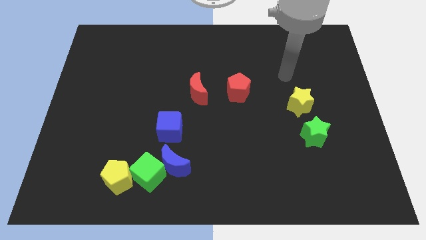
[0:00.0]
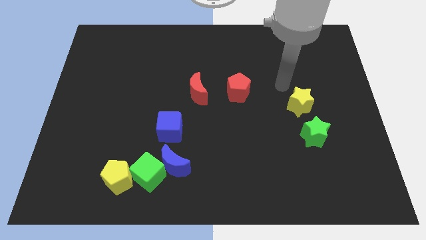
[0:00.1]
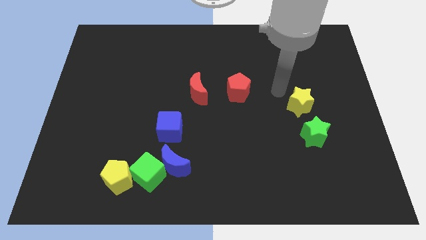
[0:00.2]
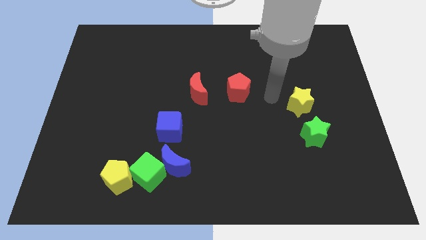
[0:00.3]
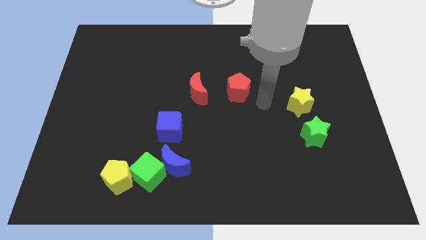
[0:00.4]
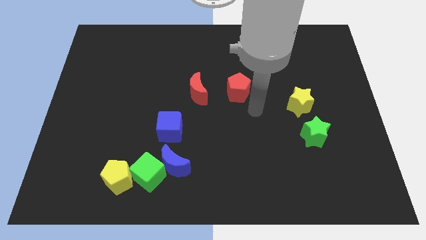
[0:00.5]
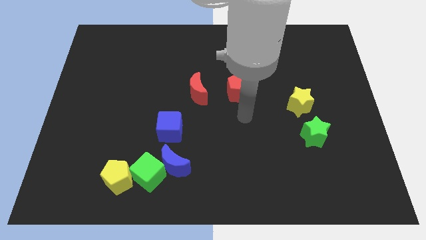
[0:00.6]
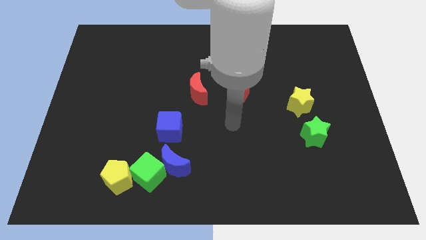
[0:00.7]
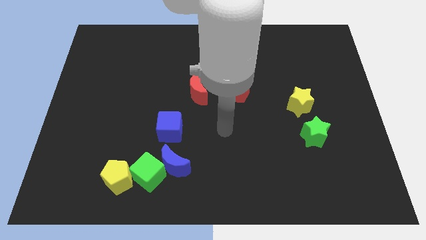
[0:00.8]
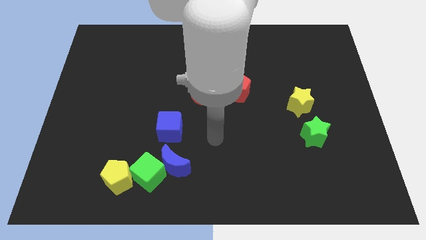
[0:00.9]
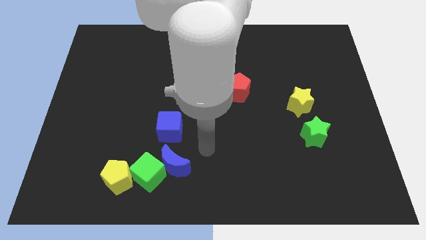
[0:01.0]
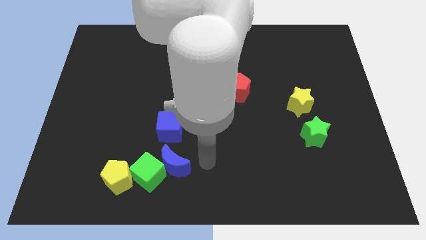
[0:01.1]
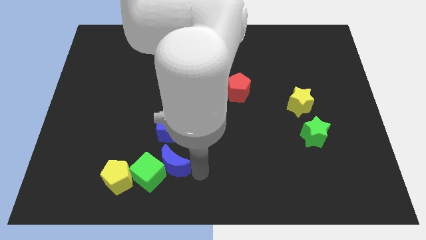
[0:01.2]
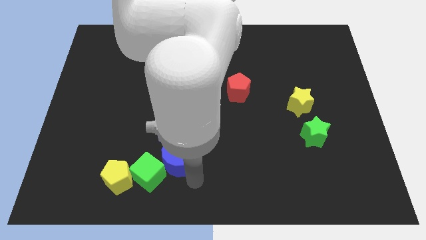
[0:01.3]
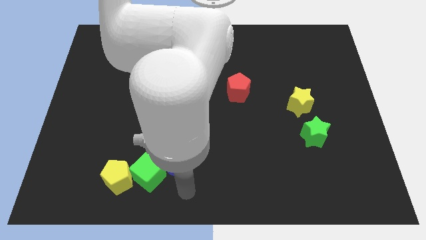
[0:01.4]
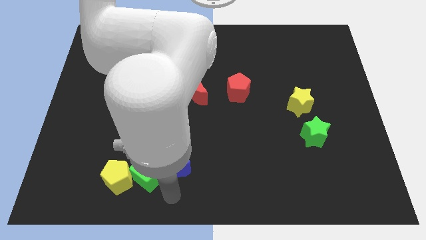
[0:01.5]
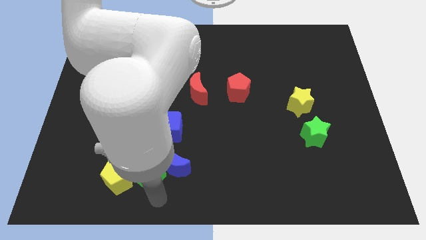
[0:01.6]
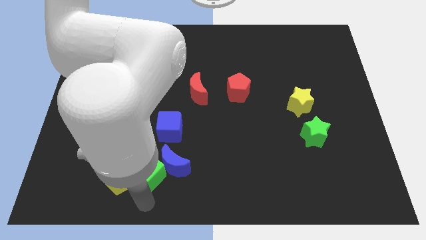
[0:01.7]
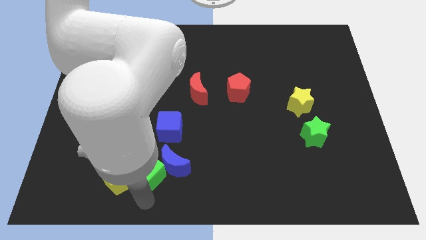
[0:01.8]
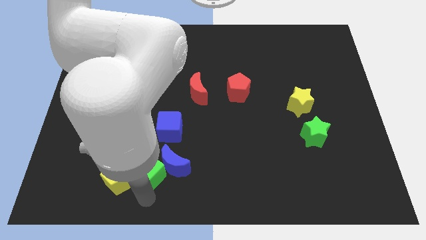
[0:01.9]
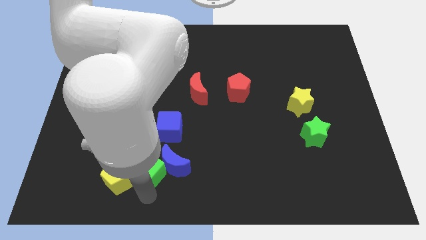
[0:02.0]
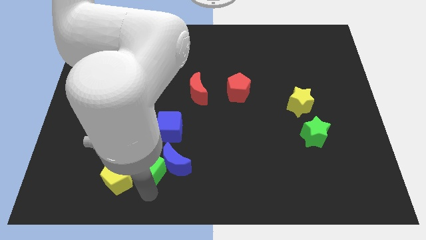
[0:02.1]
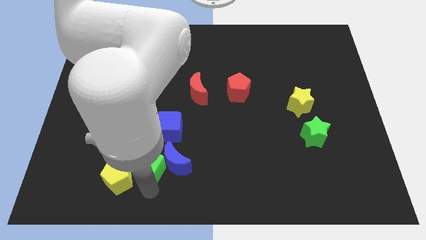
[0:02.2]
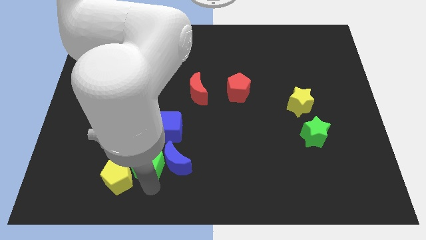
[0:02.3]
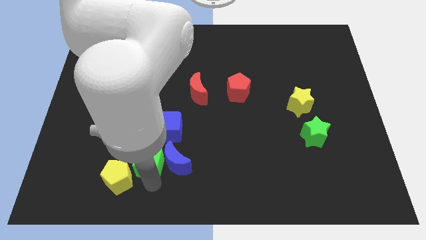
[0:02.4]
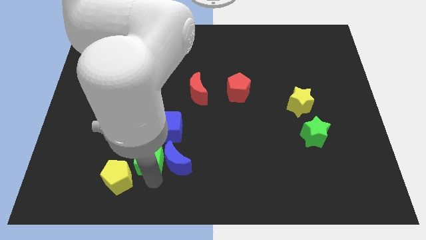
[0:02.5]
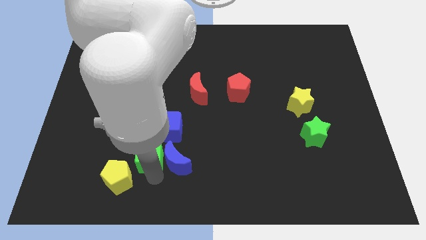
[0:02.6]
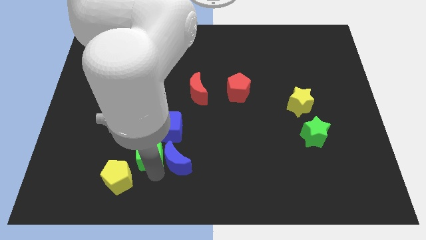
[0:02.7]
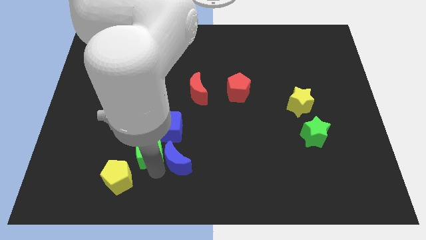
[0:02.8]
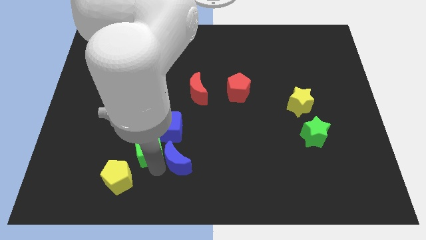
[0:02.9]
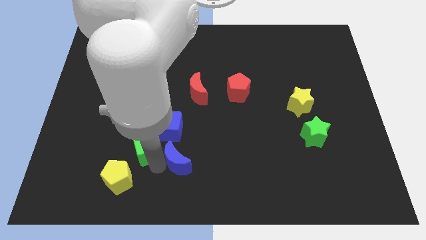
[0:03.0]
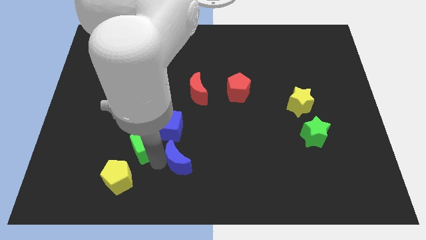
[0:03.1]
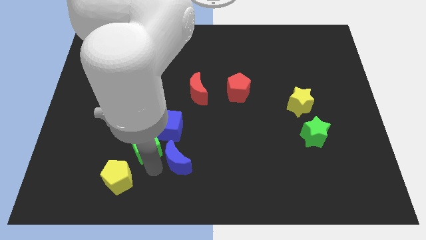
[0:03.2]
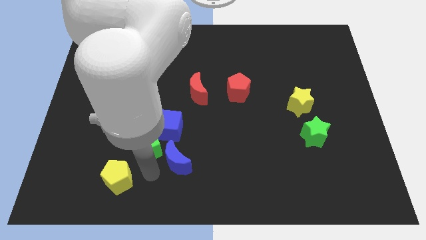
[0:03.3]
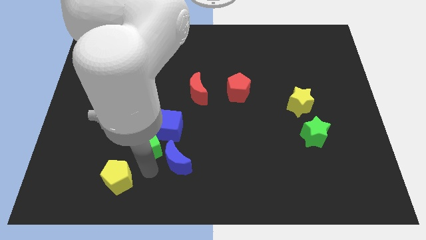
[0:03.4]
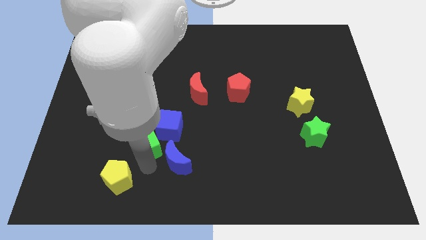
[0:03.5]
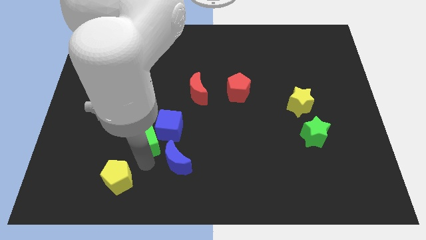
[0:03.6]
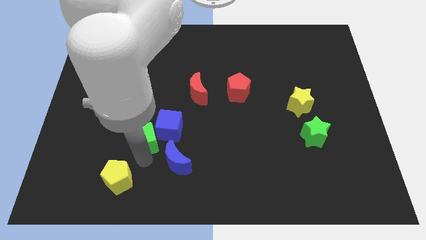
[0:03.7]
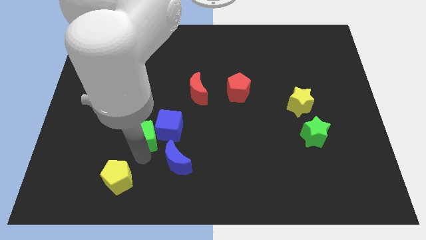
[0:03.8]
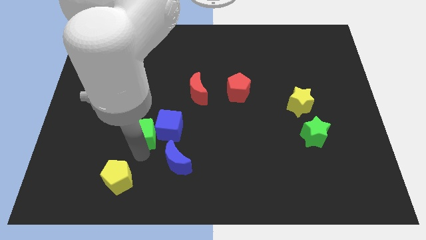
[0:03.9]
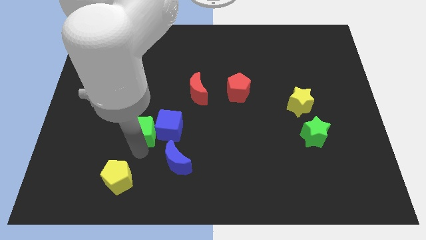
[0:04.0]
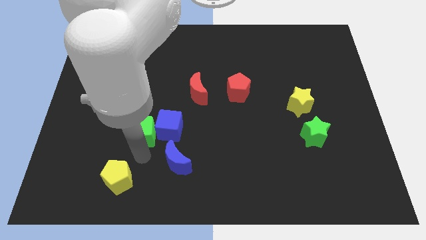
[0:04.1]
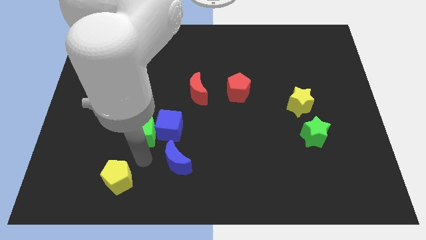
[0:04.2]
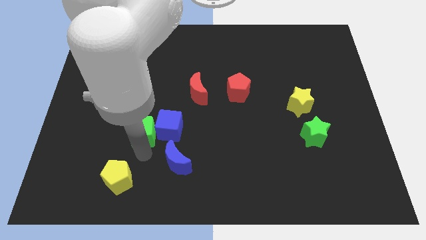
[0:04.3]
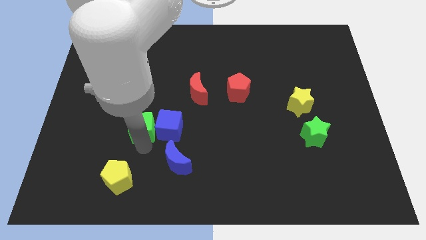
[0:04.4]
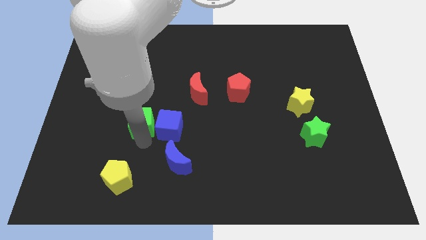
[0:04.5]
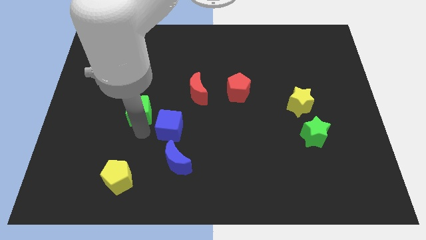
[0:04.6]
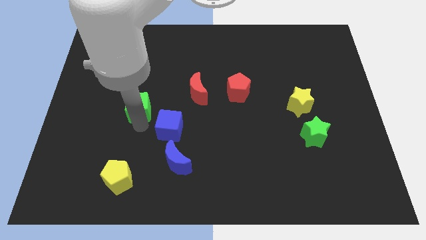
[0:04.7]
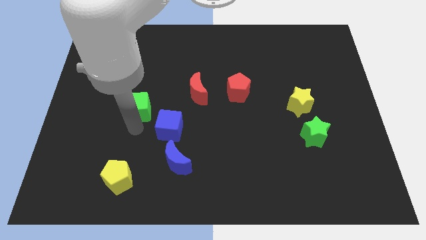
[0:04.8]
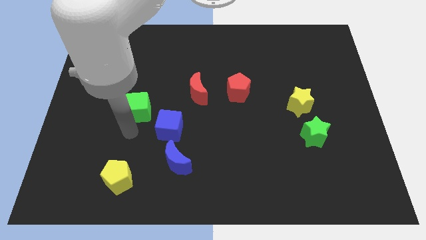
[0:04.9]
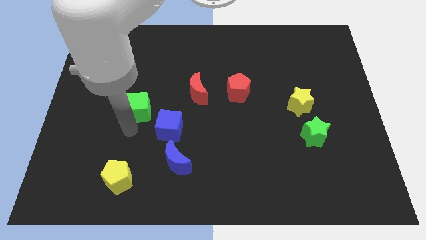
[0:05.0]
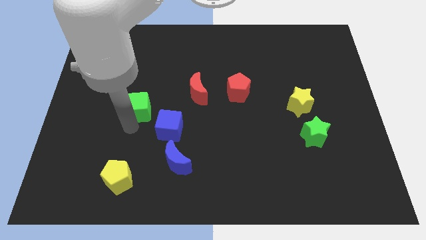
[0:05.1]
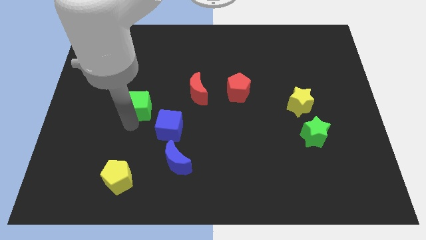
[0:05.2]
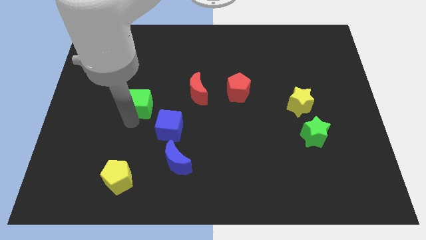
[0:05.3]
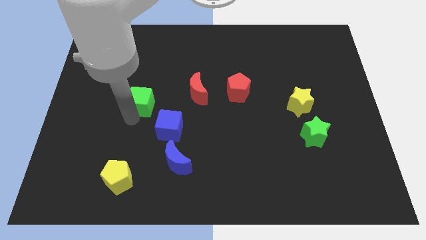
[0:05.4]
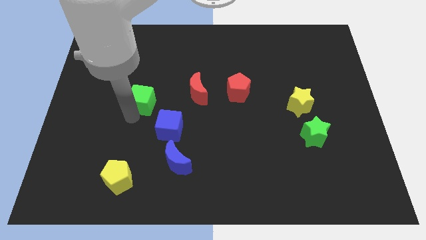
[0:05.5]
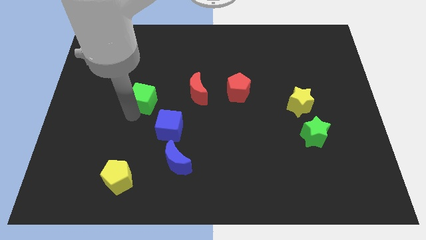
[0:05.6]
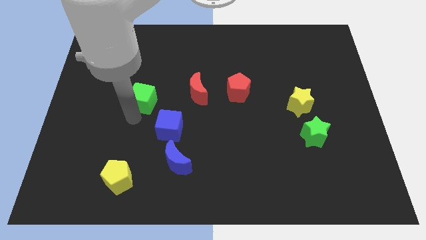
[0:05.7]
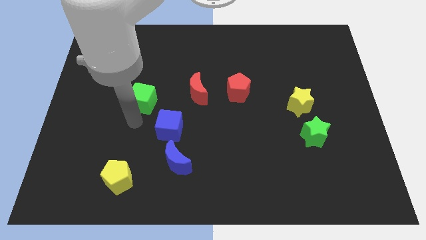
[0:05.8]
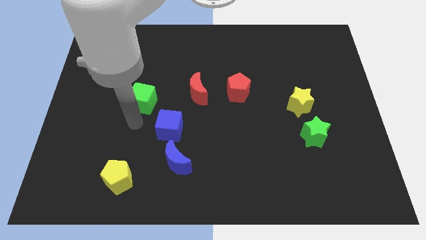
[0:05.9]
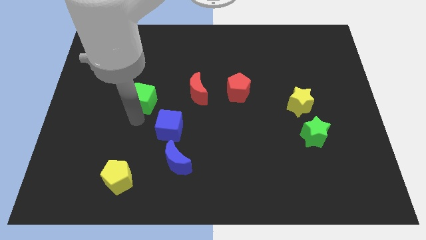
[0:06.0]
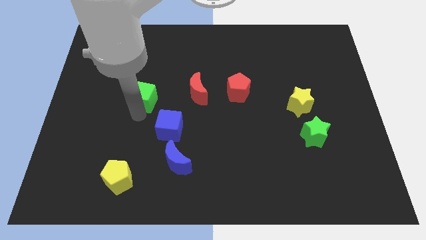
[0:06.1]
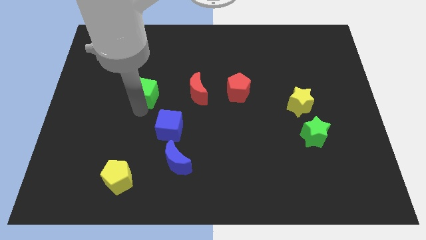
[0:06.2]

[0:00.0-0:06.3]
slide the green cube up

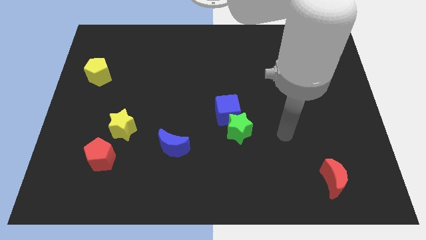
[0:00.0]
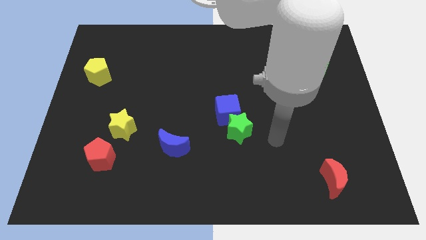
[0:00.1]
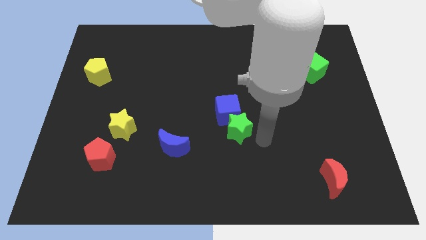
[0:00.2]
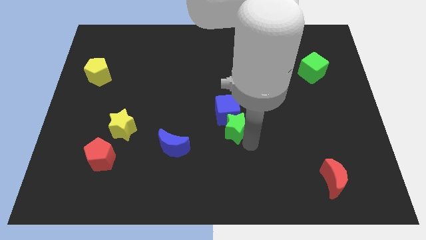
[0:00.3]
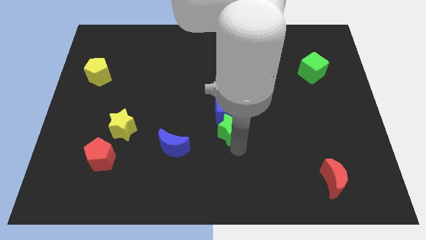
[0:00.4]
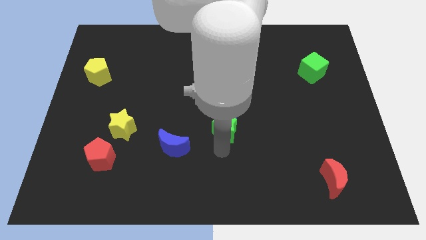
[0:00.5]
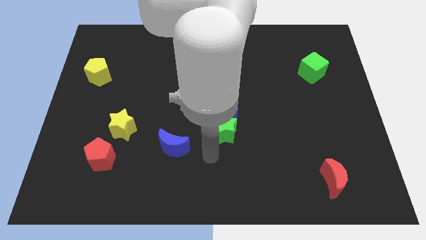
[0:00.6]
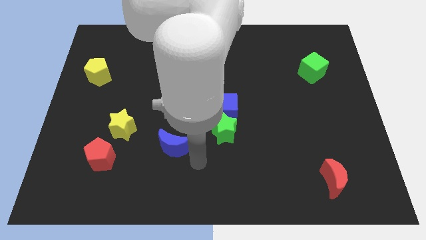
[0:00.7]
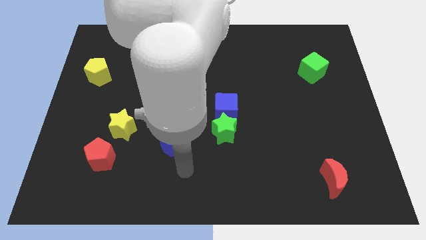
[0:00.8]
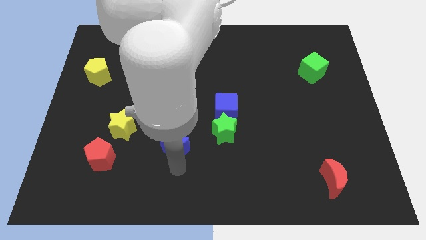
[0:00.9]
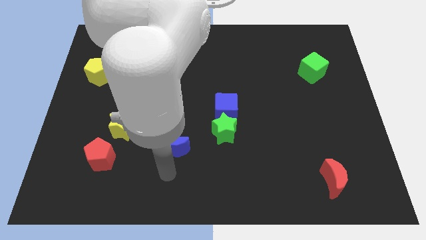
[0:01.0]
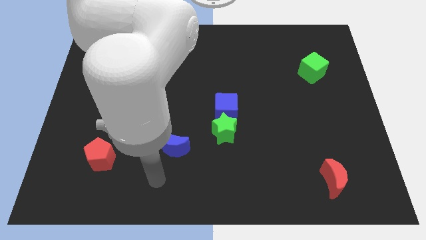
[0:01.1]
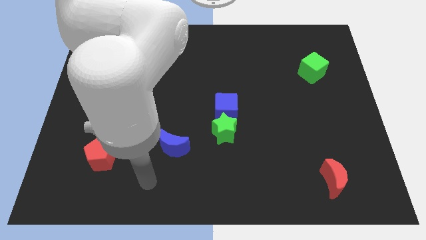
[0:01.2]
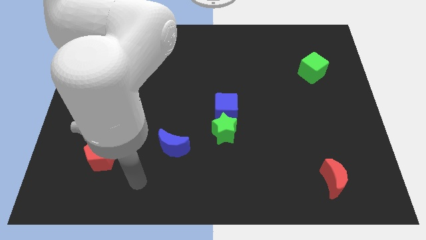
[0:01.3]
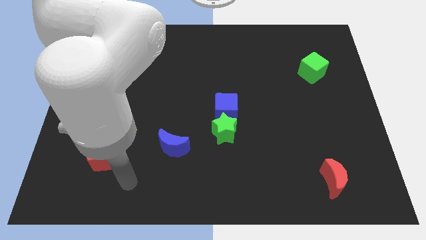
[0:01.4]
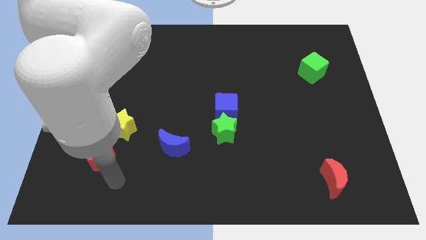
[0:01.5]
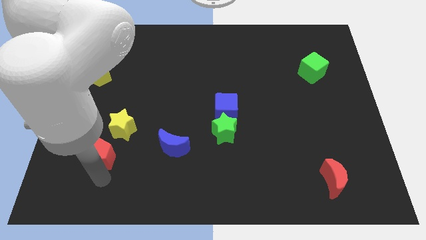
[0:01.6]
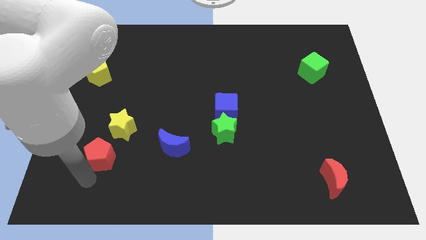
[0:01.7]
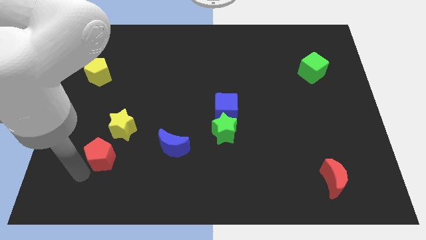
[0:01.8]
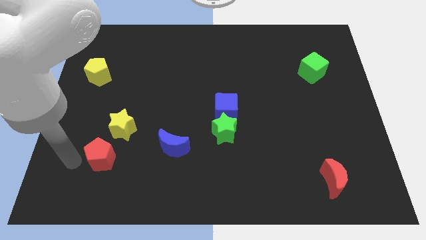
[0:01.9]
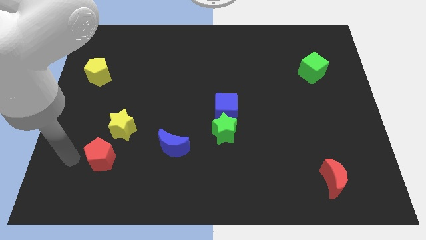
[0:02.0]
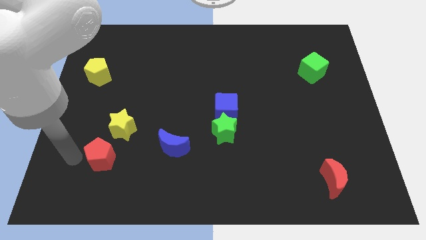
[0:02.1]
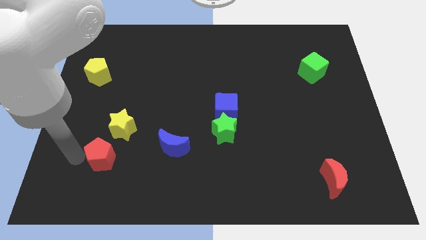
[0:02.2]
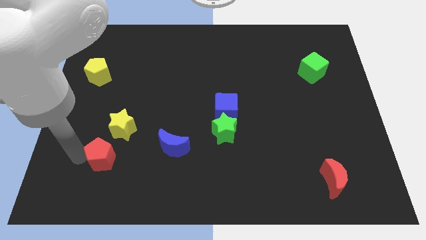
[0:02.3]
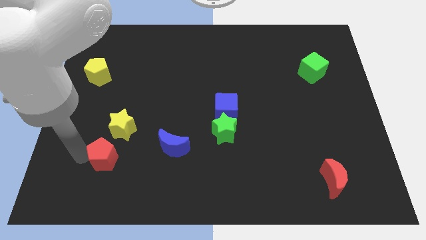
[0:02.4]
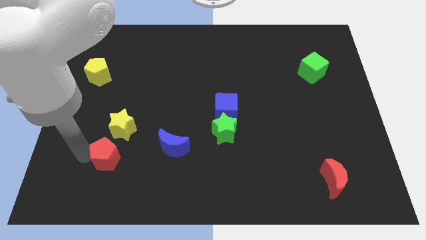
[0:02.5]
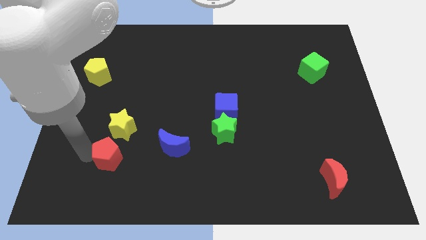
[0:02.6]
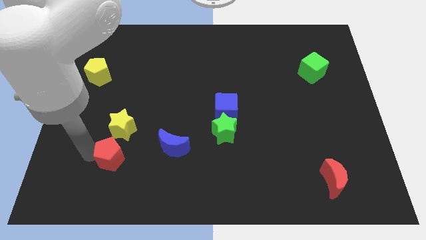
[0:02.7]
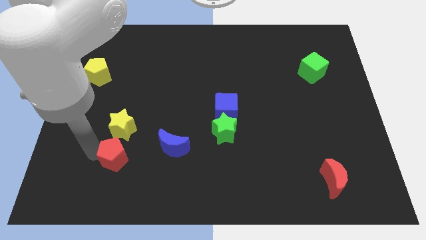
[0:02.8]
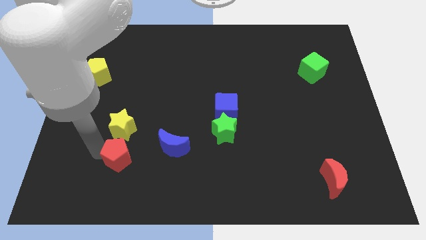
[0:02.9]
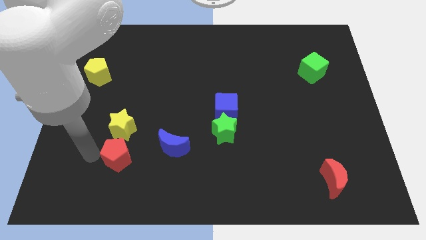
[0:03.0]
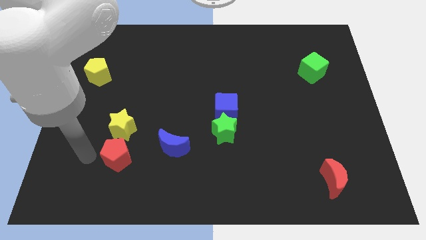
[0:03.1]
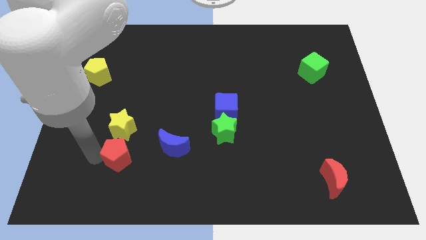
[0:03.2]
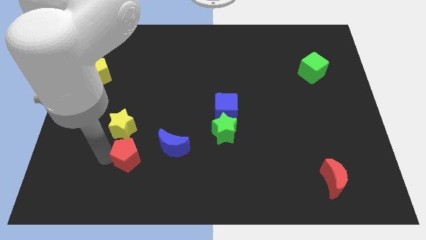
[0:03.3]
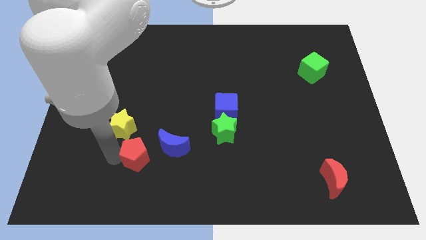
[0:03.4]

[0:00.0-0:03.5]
slightly push the red pentagon to the right
